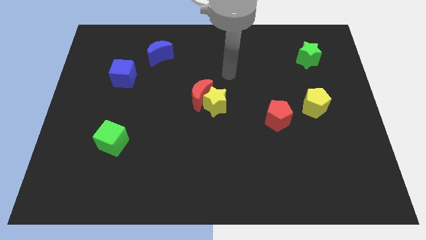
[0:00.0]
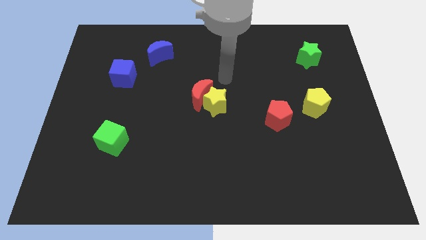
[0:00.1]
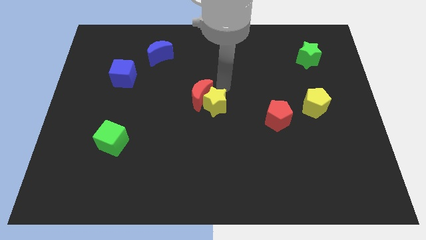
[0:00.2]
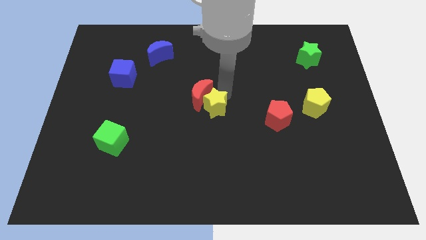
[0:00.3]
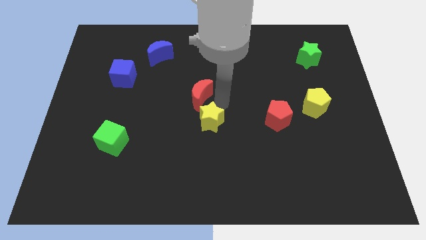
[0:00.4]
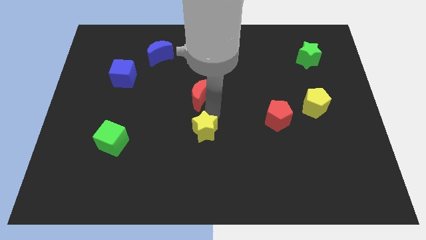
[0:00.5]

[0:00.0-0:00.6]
move the red moon away from the yellow star

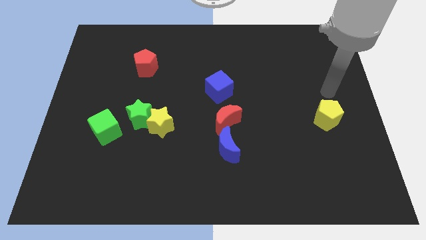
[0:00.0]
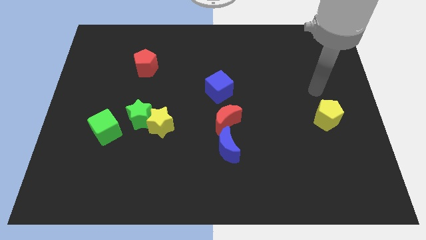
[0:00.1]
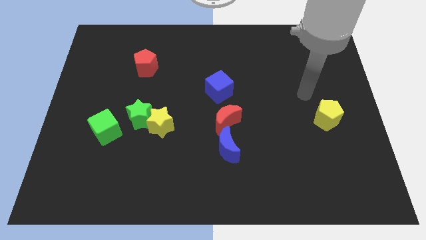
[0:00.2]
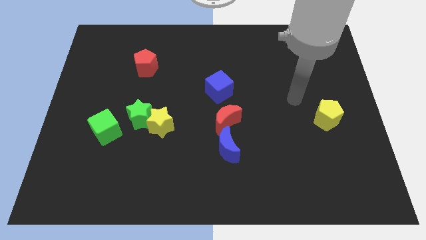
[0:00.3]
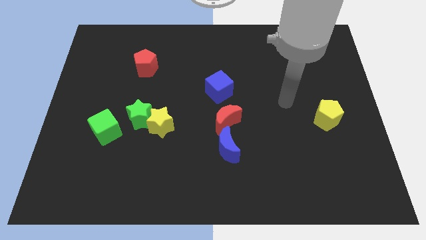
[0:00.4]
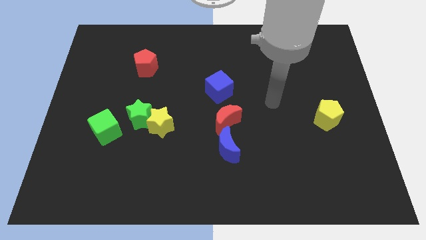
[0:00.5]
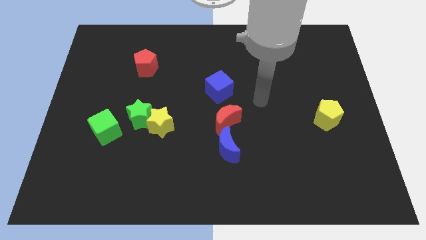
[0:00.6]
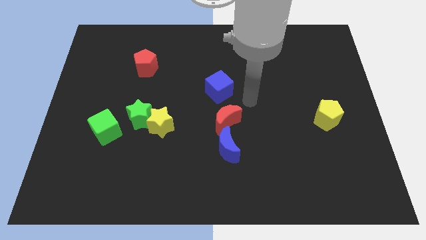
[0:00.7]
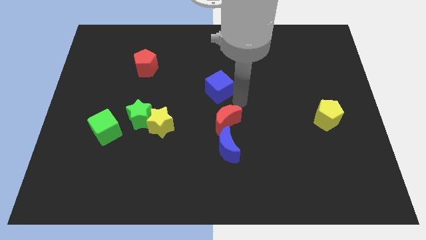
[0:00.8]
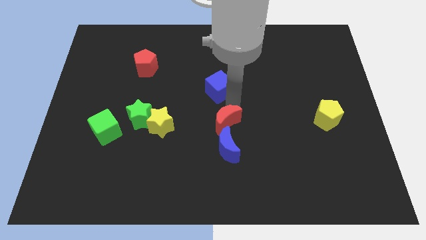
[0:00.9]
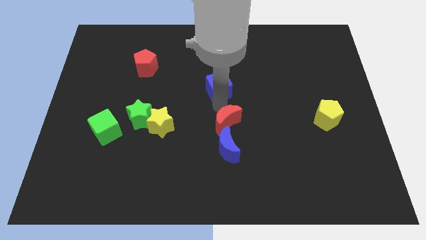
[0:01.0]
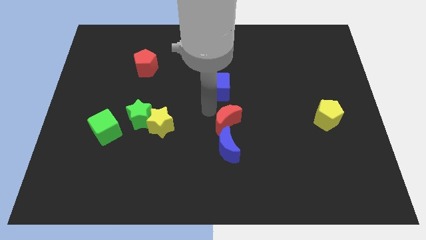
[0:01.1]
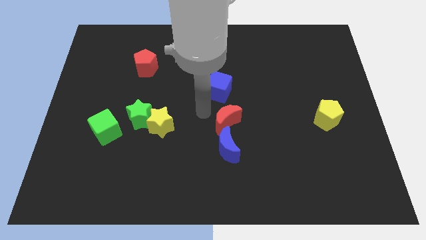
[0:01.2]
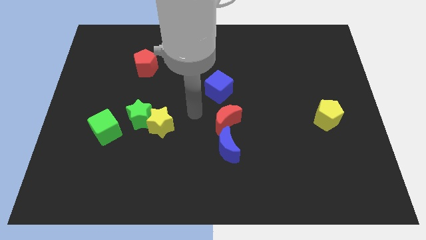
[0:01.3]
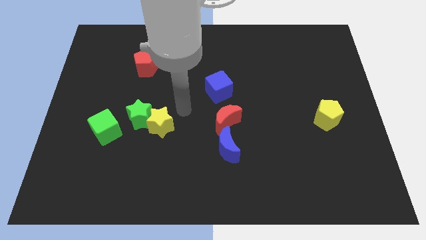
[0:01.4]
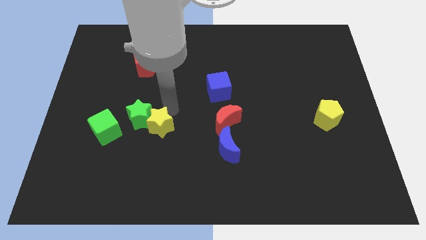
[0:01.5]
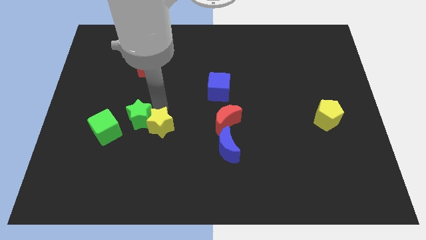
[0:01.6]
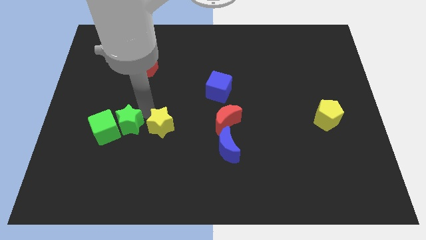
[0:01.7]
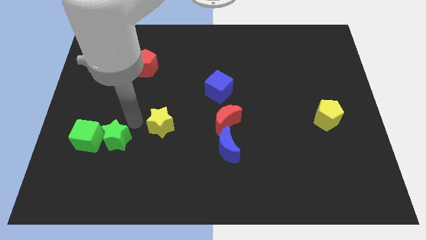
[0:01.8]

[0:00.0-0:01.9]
move the yellow star away from the green star

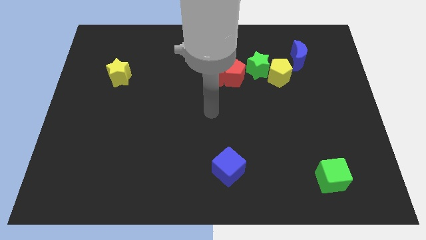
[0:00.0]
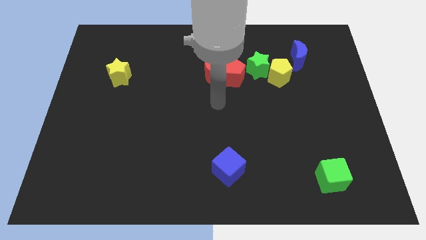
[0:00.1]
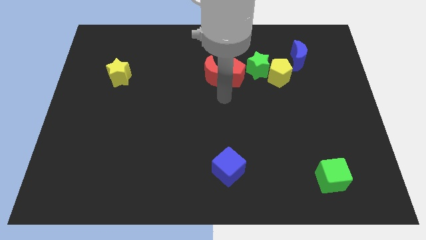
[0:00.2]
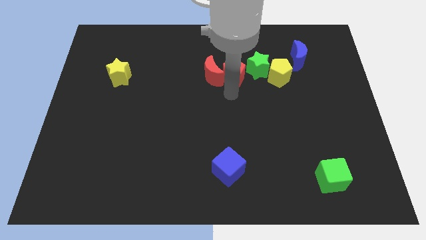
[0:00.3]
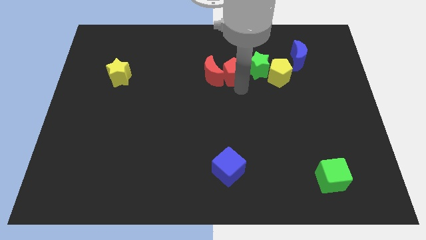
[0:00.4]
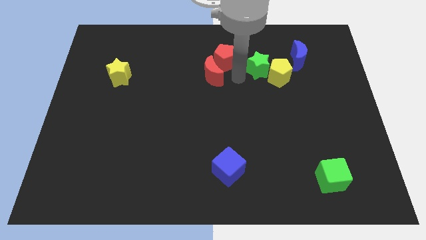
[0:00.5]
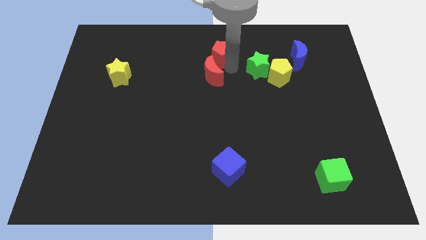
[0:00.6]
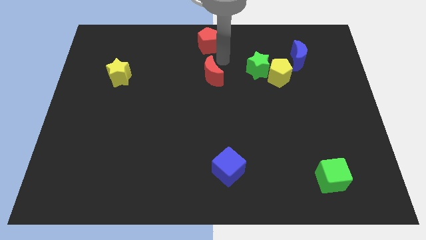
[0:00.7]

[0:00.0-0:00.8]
move the red moon away from the red pentagon

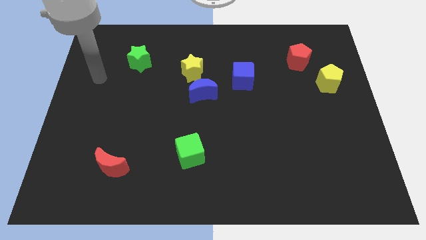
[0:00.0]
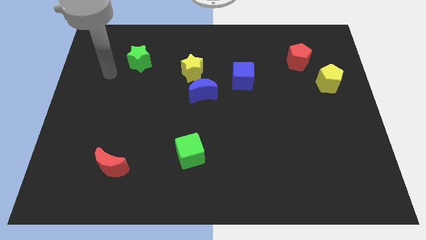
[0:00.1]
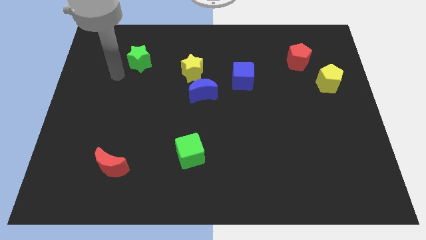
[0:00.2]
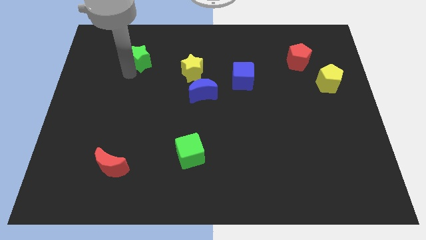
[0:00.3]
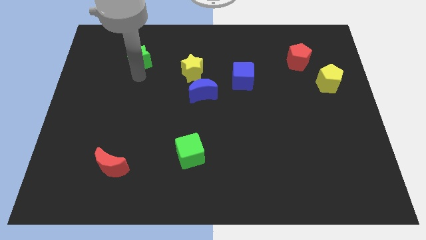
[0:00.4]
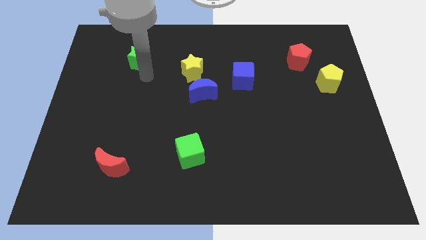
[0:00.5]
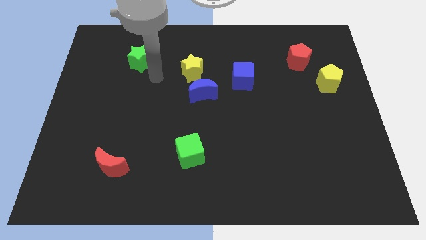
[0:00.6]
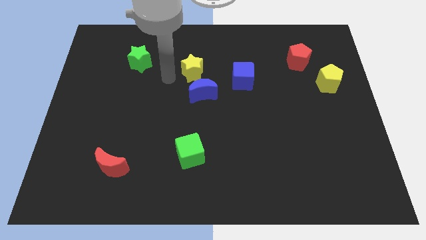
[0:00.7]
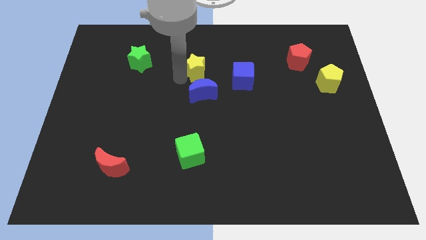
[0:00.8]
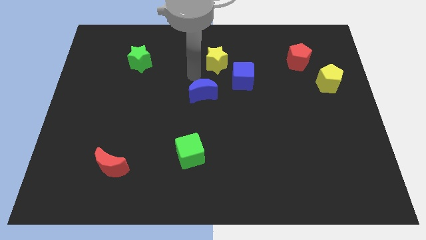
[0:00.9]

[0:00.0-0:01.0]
pull the blue moon apart from the yellow star

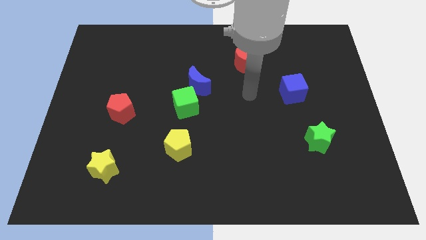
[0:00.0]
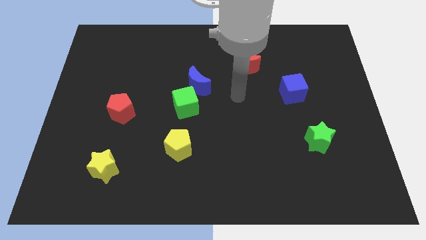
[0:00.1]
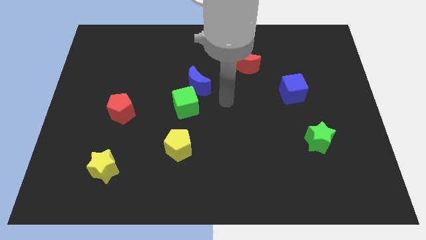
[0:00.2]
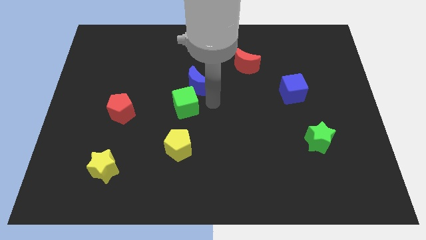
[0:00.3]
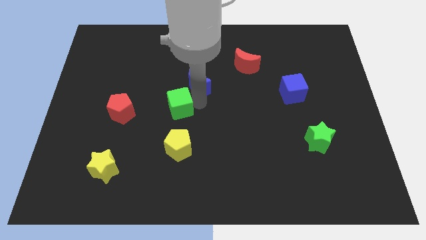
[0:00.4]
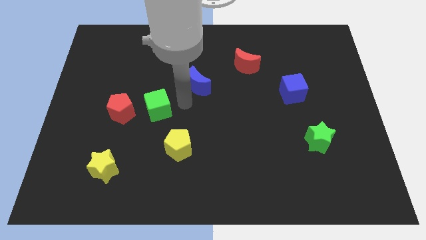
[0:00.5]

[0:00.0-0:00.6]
move the blue moon away from the green cube

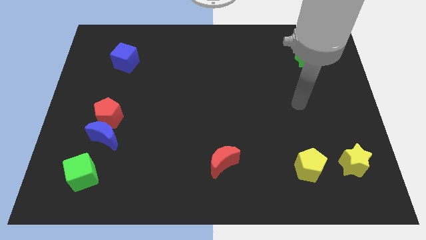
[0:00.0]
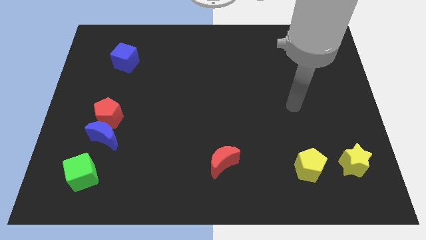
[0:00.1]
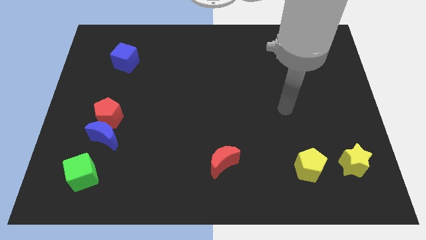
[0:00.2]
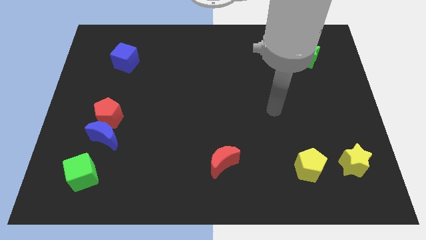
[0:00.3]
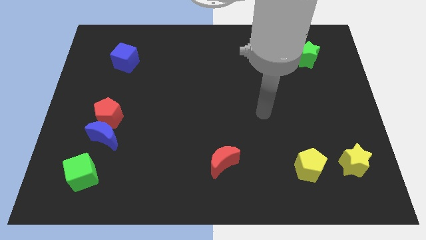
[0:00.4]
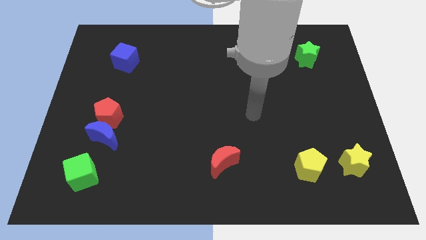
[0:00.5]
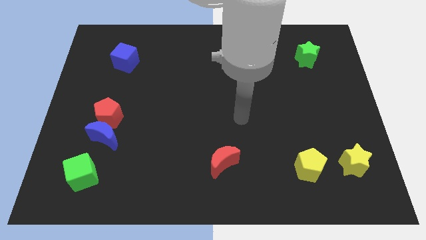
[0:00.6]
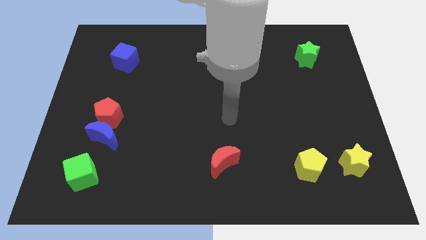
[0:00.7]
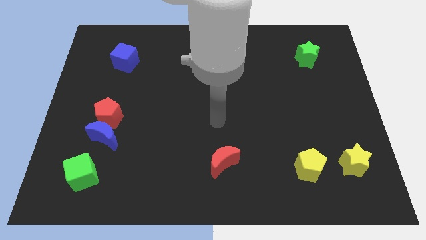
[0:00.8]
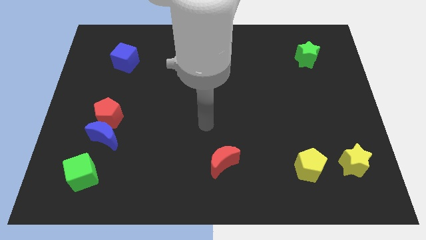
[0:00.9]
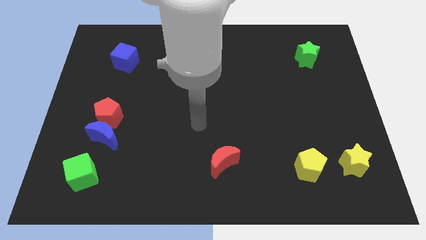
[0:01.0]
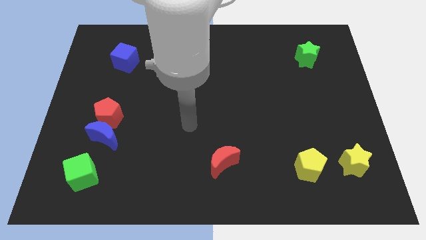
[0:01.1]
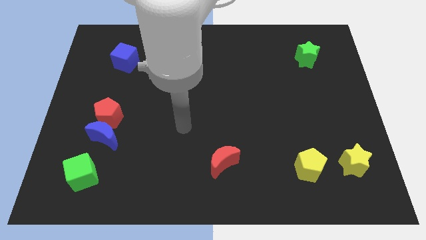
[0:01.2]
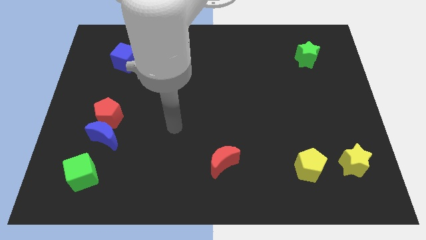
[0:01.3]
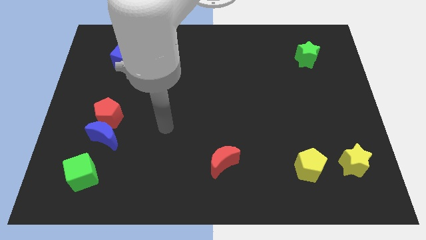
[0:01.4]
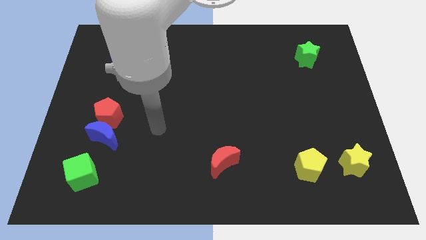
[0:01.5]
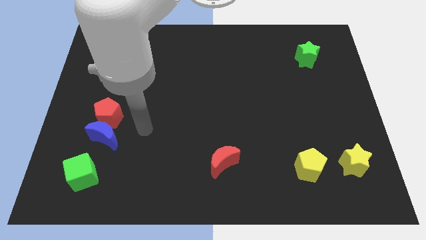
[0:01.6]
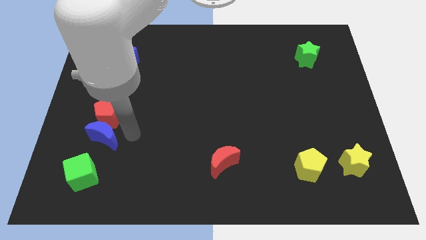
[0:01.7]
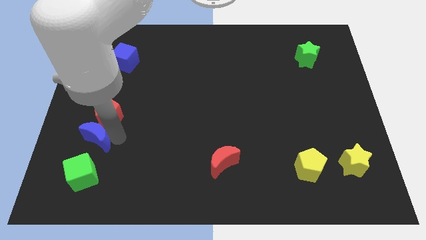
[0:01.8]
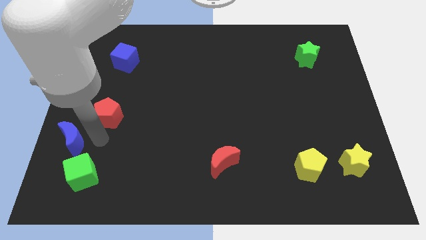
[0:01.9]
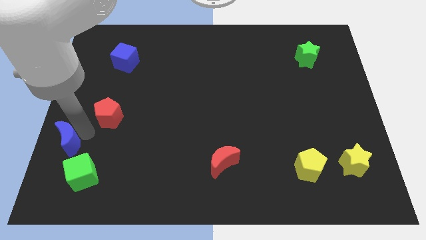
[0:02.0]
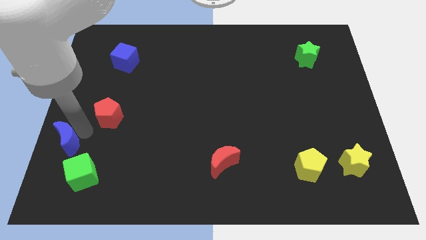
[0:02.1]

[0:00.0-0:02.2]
separate the red pentagon from the blue moon

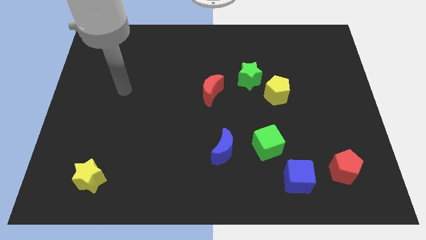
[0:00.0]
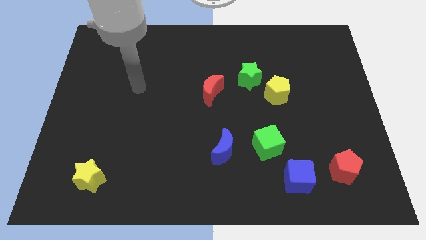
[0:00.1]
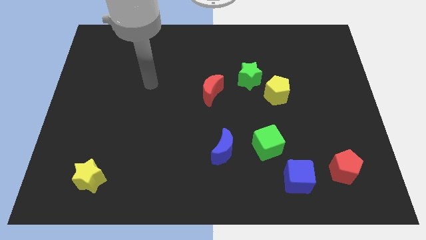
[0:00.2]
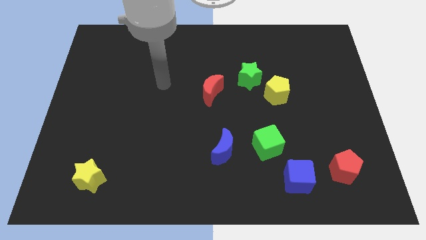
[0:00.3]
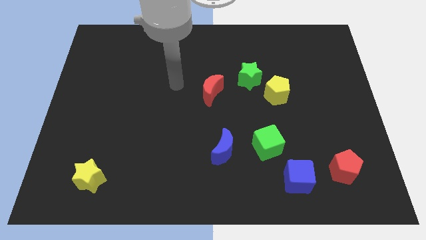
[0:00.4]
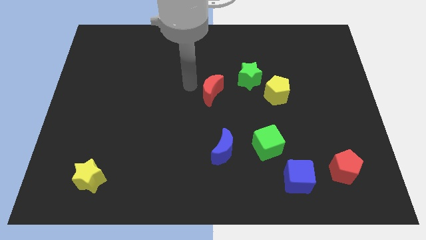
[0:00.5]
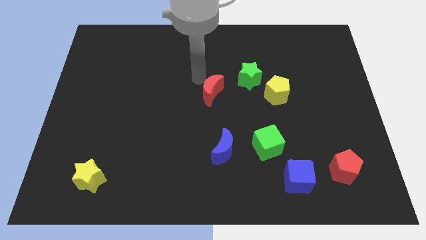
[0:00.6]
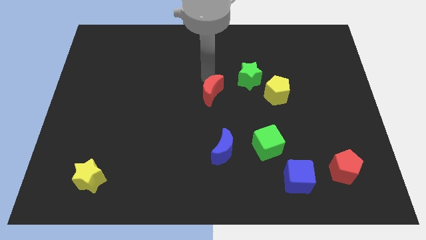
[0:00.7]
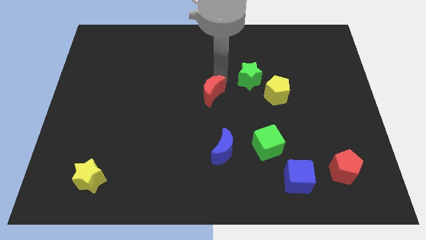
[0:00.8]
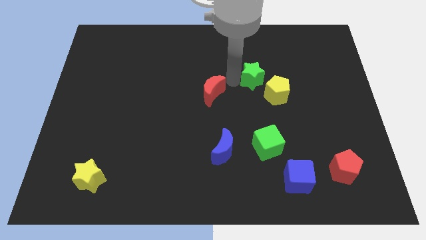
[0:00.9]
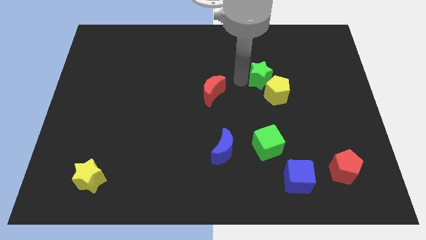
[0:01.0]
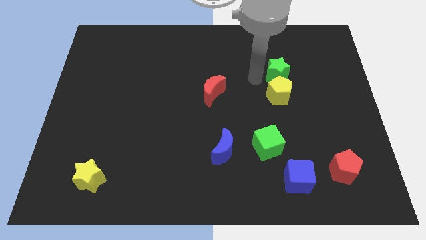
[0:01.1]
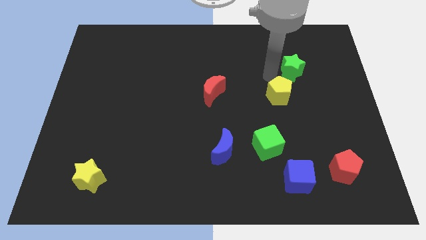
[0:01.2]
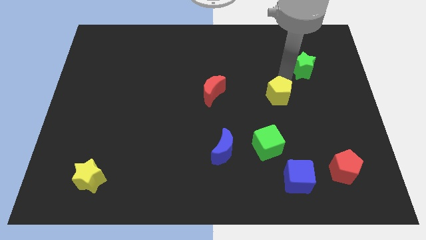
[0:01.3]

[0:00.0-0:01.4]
pull the yellow pentagon apart from the green star

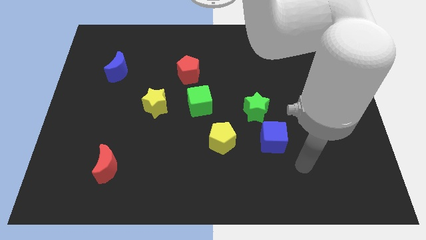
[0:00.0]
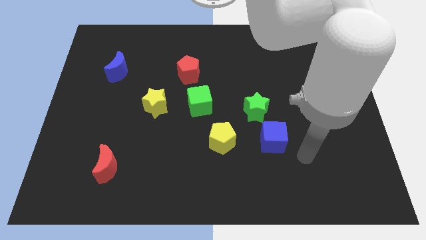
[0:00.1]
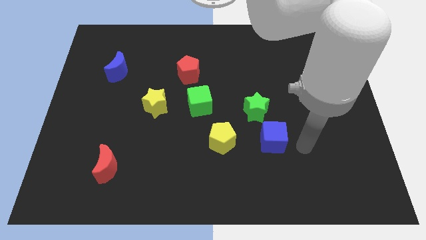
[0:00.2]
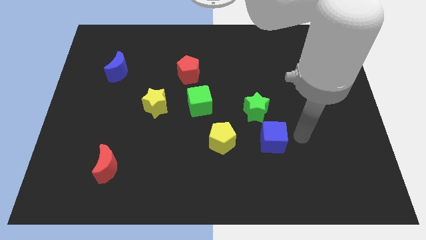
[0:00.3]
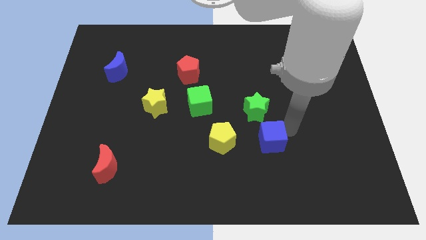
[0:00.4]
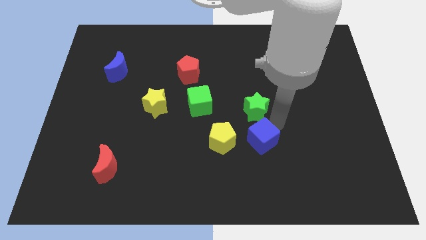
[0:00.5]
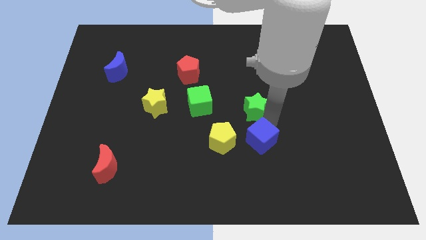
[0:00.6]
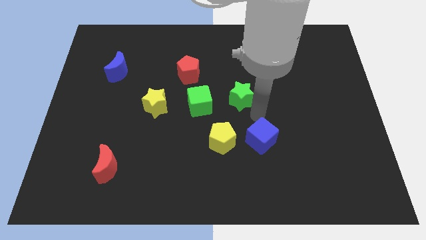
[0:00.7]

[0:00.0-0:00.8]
separate the blue cube from the green star
